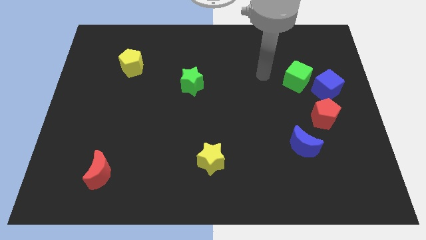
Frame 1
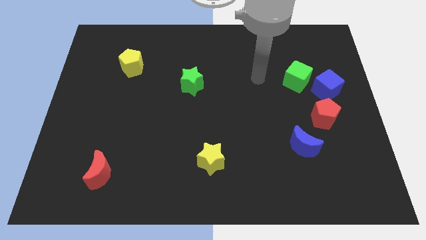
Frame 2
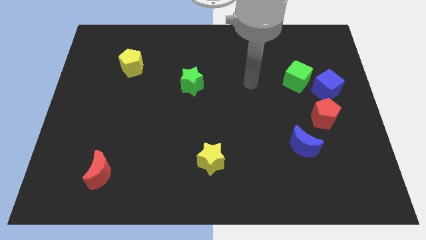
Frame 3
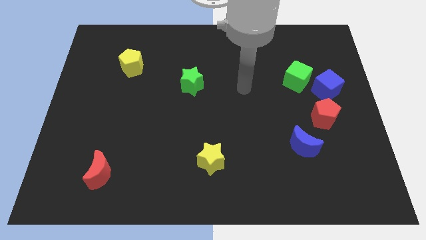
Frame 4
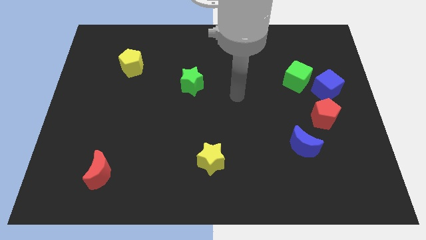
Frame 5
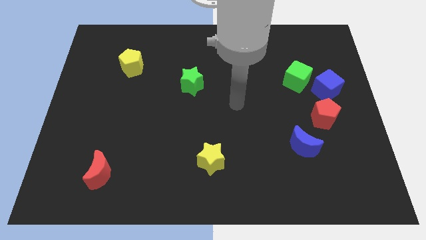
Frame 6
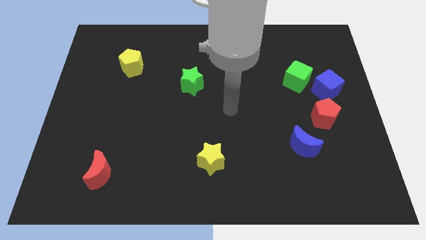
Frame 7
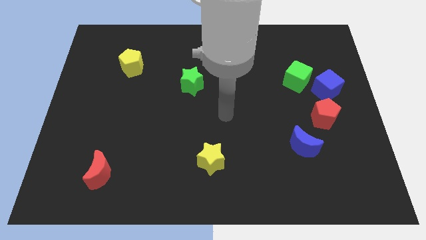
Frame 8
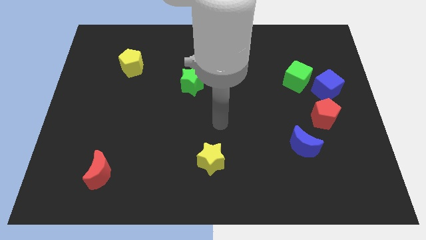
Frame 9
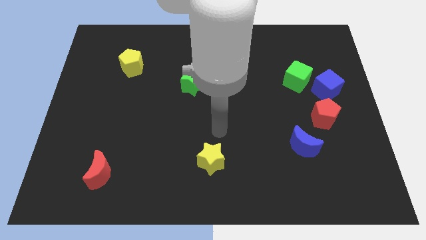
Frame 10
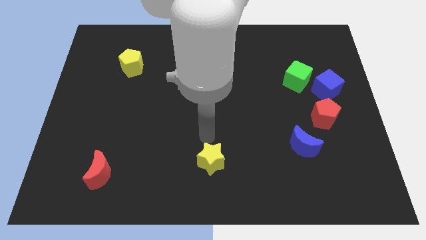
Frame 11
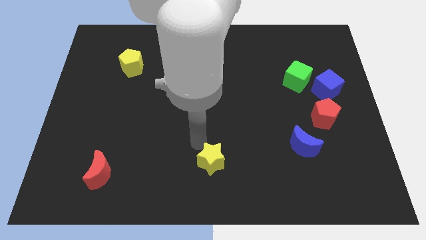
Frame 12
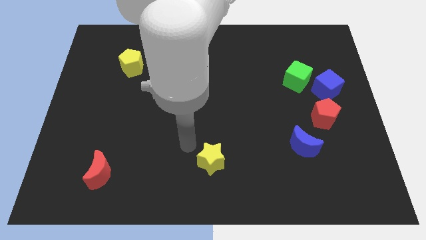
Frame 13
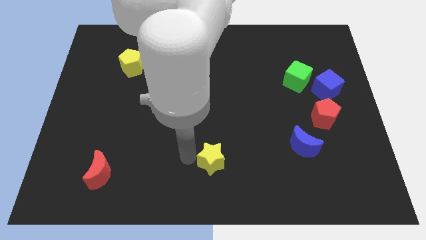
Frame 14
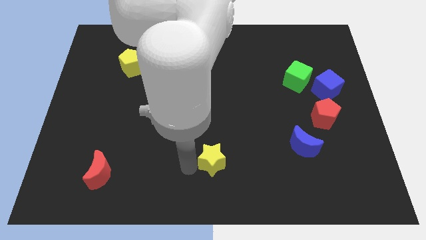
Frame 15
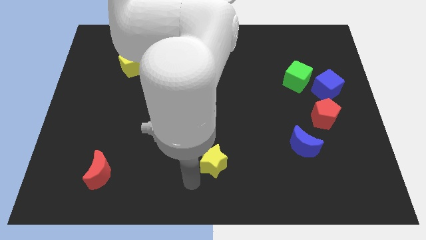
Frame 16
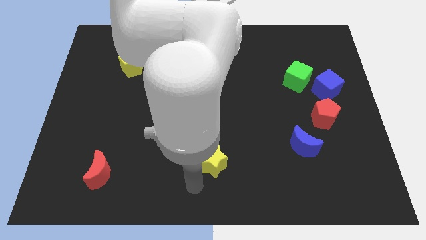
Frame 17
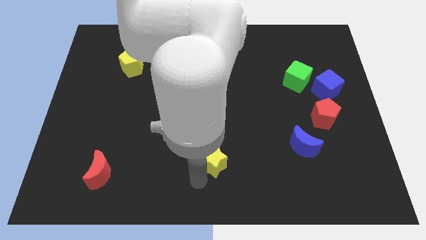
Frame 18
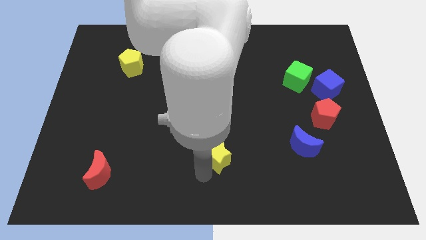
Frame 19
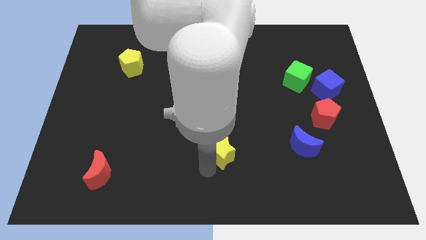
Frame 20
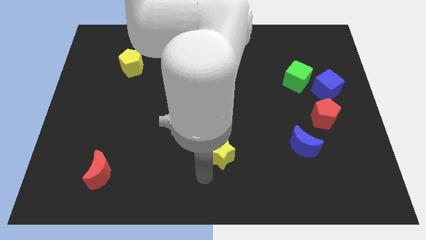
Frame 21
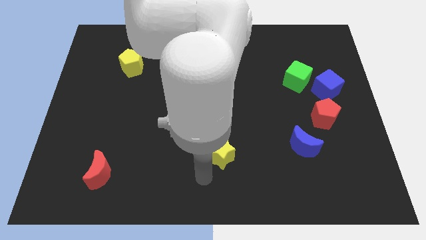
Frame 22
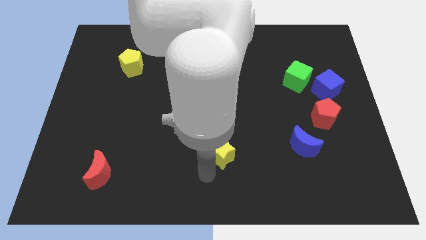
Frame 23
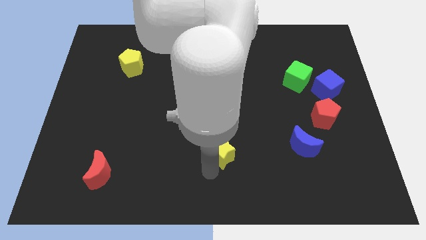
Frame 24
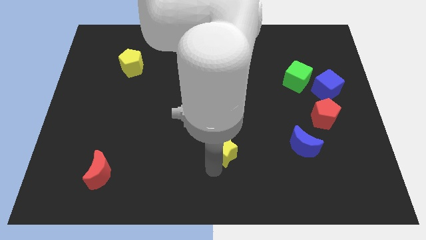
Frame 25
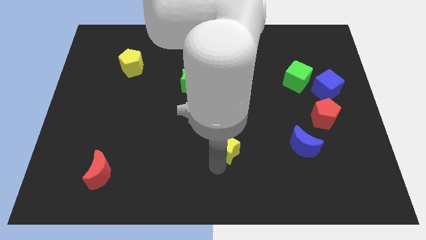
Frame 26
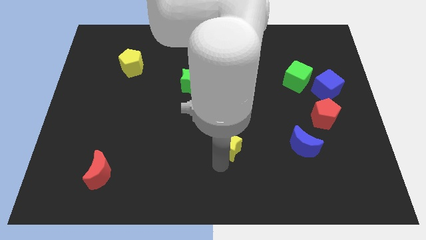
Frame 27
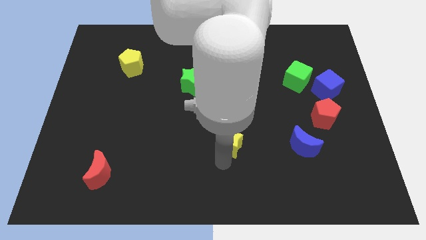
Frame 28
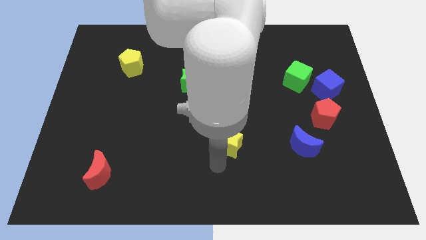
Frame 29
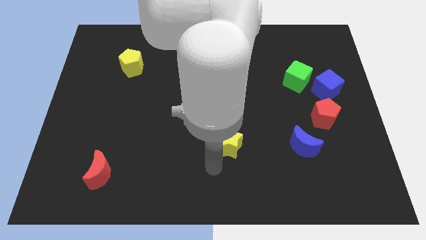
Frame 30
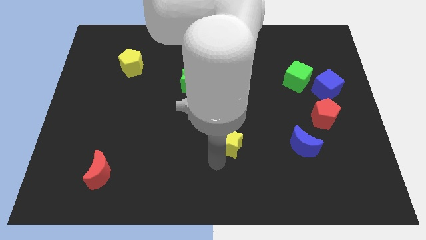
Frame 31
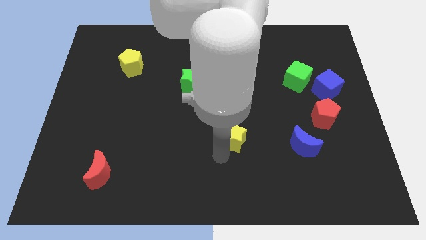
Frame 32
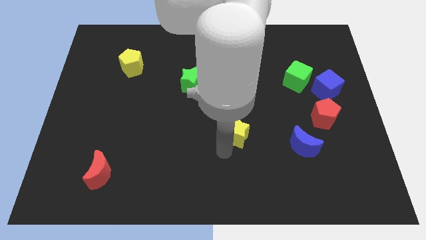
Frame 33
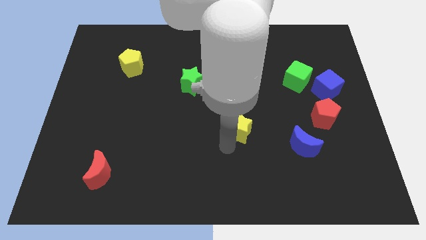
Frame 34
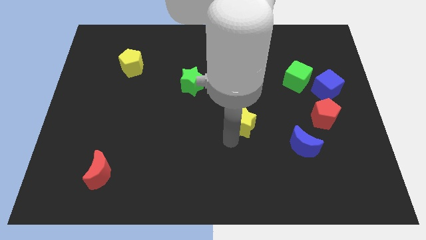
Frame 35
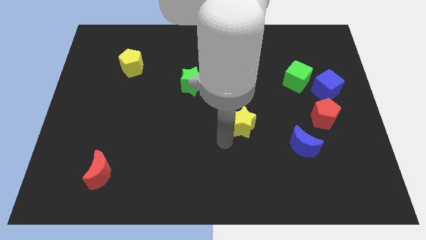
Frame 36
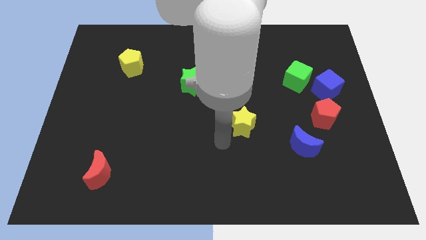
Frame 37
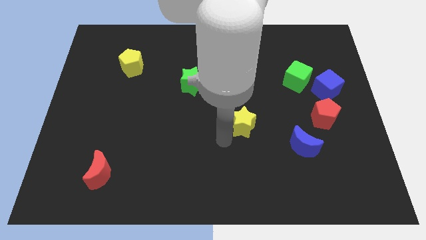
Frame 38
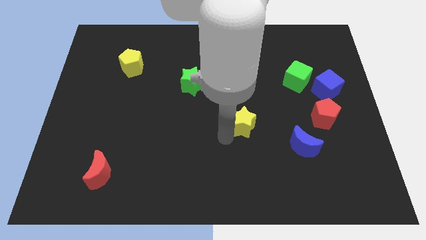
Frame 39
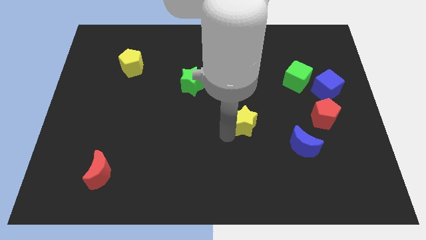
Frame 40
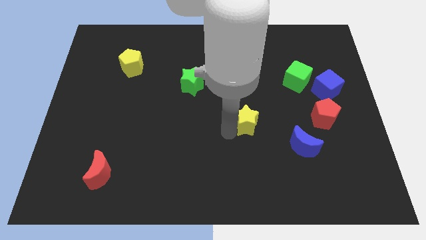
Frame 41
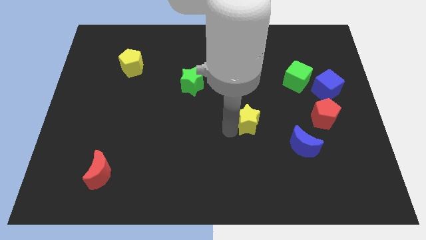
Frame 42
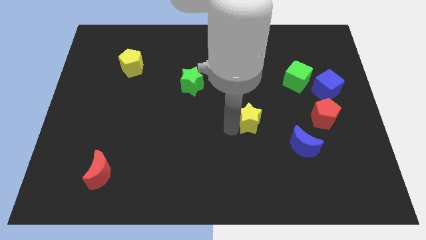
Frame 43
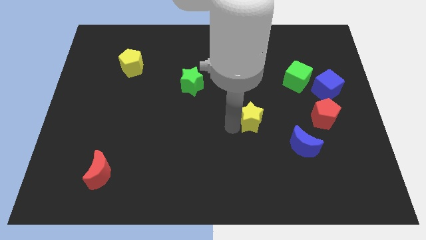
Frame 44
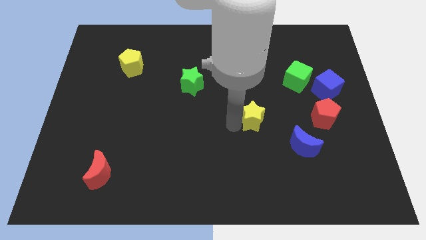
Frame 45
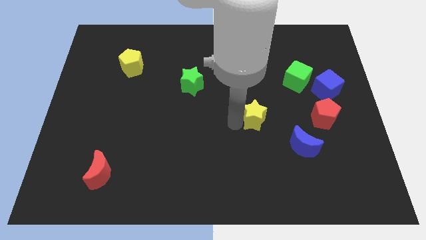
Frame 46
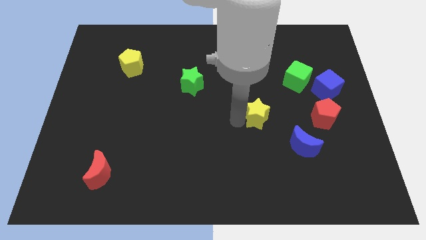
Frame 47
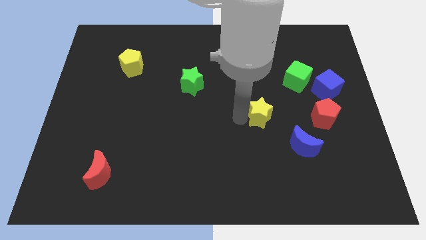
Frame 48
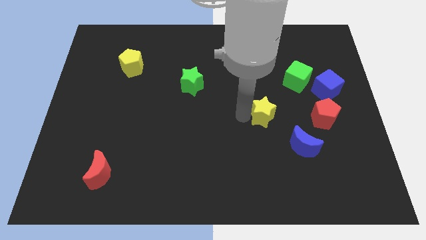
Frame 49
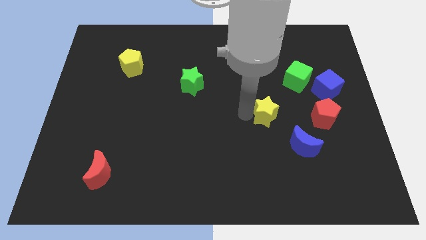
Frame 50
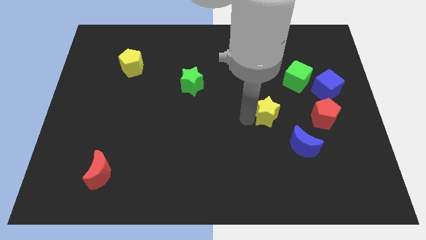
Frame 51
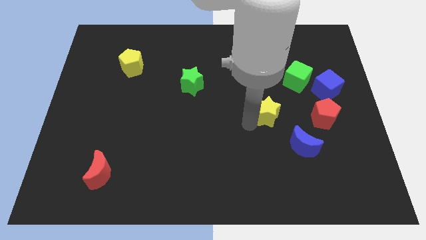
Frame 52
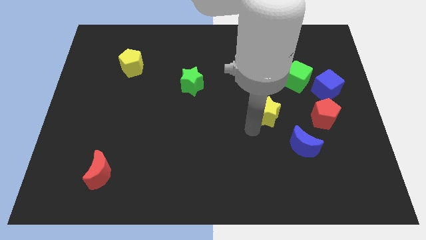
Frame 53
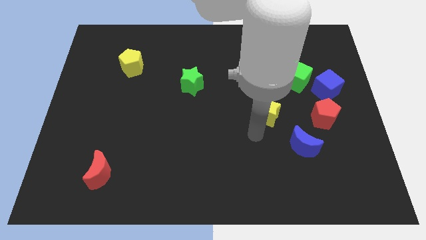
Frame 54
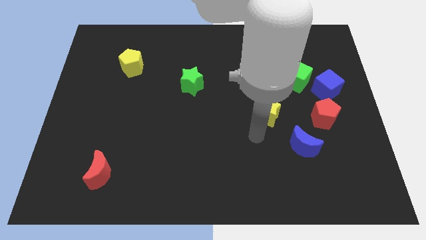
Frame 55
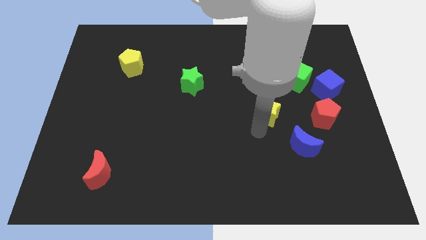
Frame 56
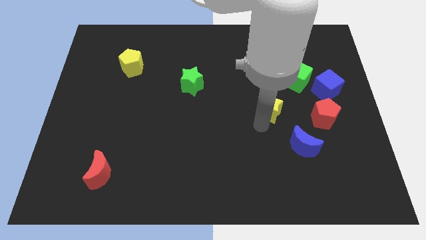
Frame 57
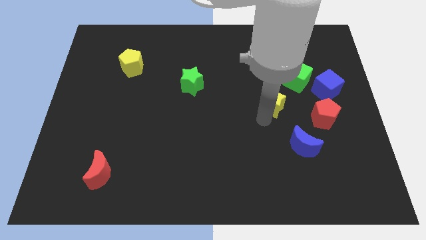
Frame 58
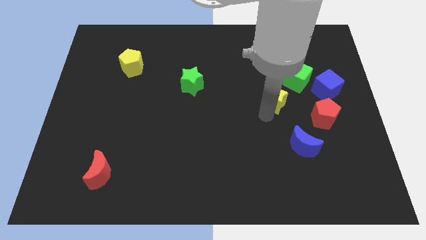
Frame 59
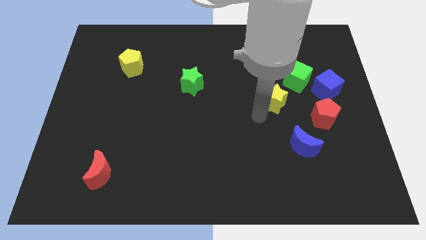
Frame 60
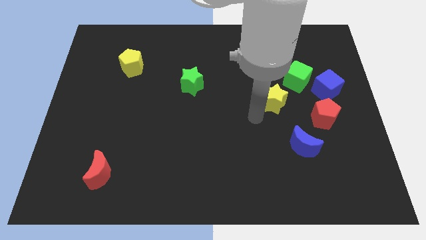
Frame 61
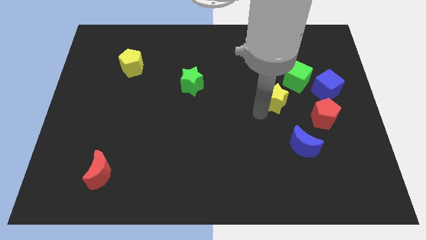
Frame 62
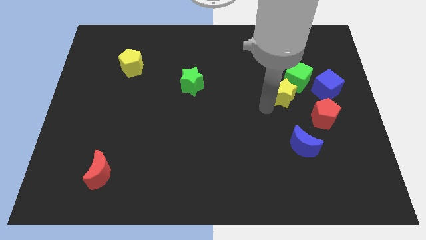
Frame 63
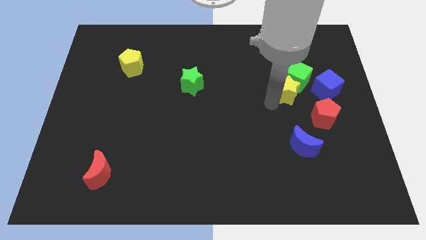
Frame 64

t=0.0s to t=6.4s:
slide the yellow star to the green cube

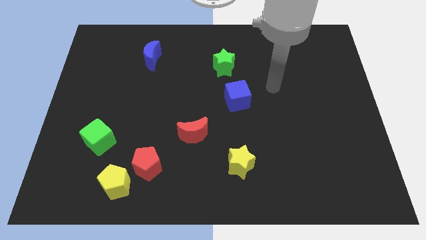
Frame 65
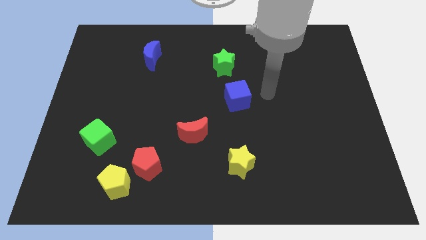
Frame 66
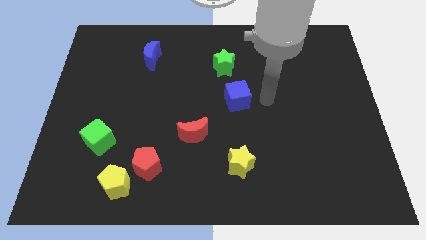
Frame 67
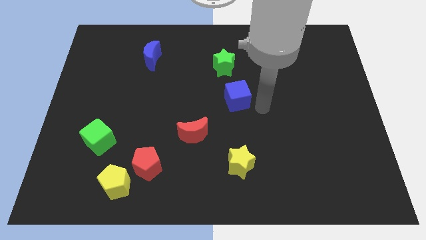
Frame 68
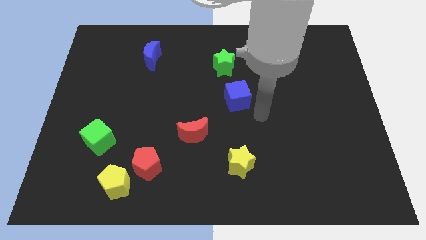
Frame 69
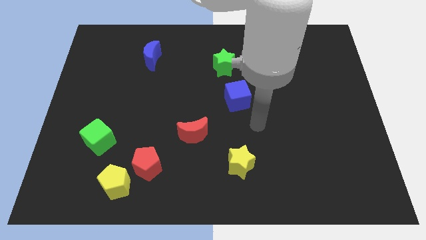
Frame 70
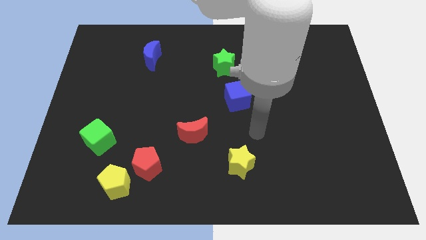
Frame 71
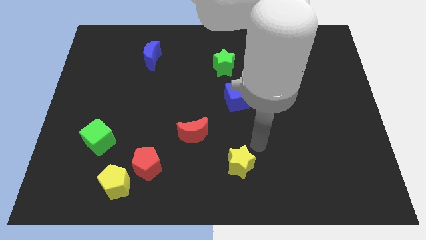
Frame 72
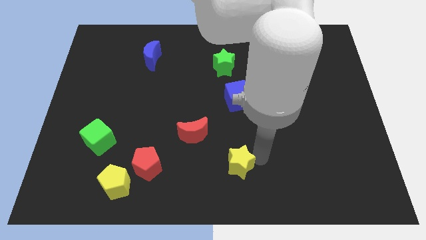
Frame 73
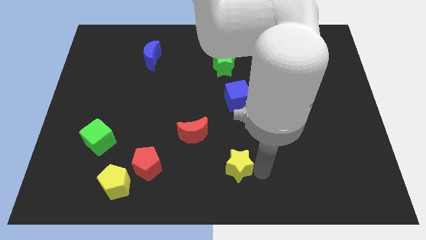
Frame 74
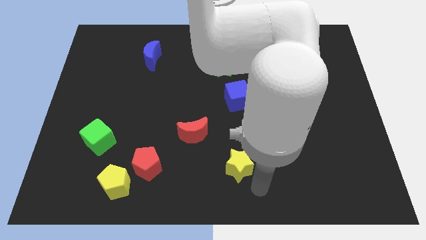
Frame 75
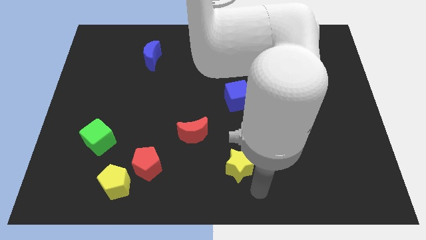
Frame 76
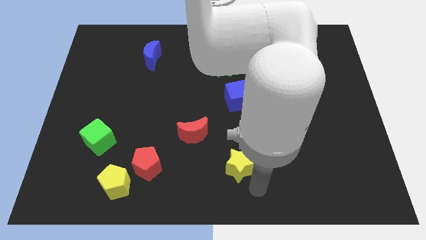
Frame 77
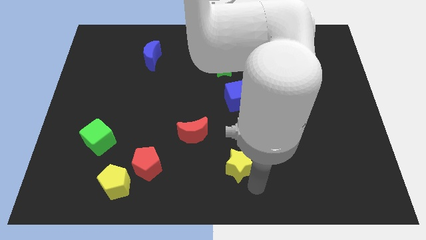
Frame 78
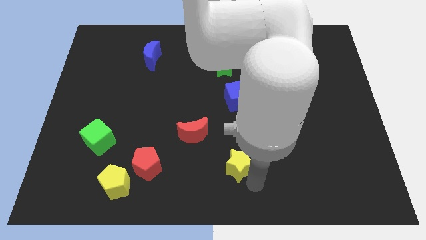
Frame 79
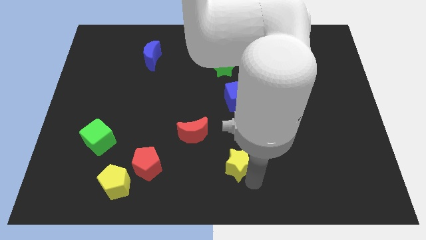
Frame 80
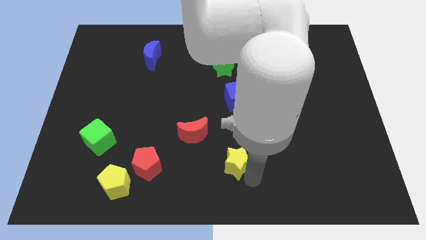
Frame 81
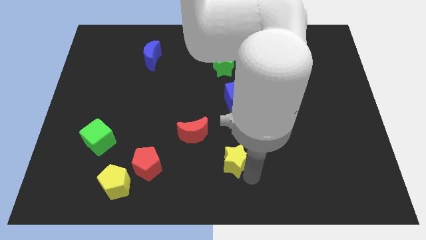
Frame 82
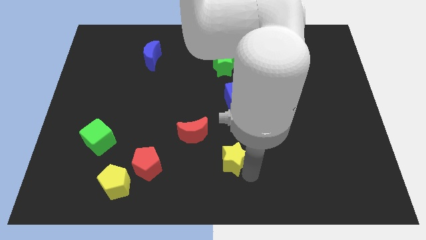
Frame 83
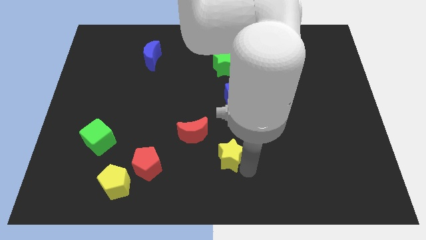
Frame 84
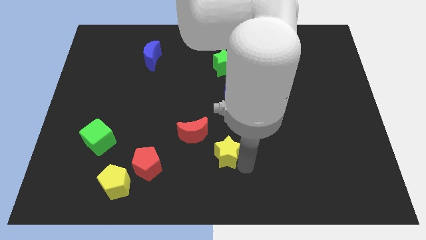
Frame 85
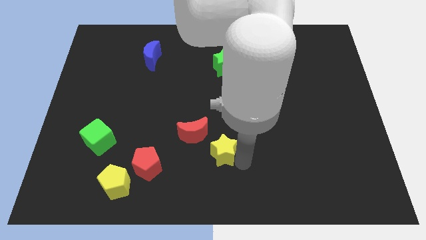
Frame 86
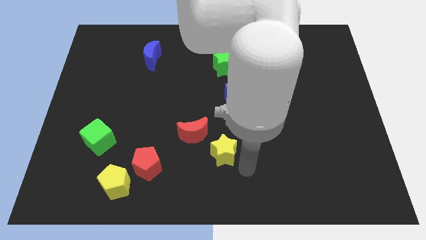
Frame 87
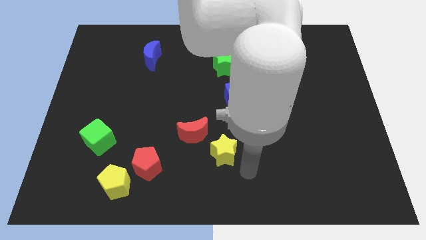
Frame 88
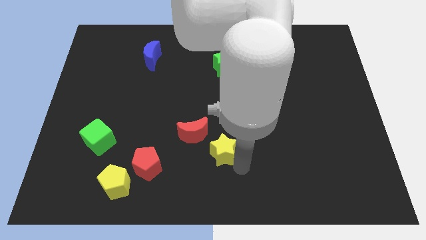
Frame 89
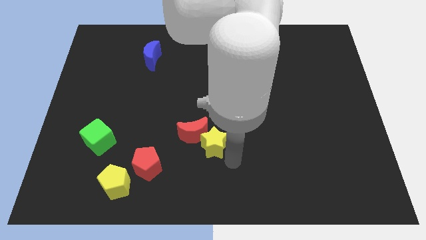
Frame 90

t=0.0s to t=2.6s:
move the yellow star to the red moon
